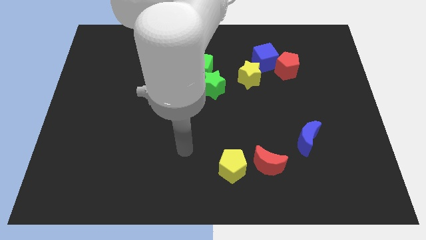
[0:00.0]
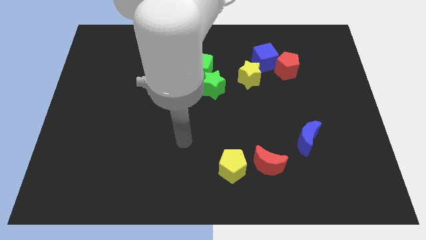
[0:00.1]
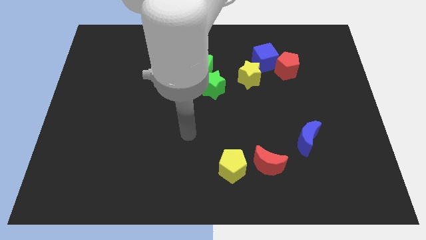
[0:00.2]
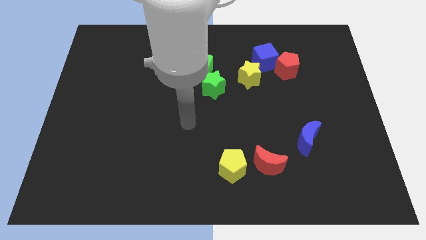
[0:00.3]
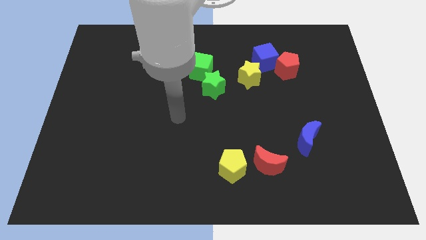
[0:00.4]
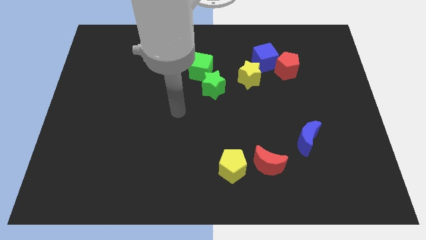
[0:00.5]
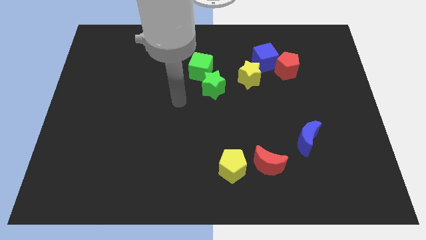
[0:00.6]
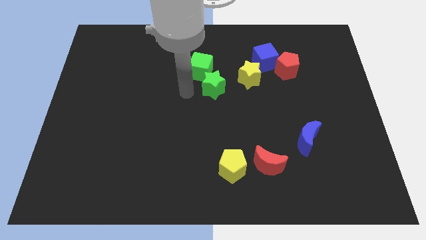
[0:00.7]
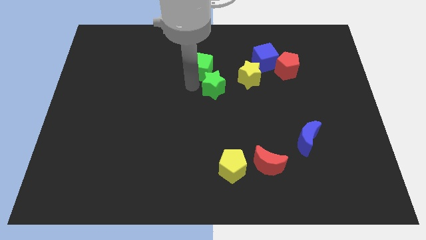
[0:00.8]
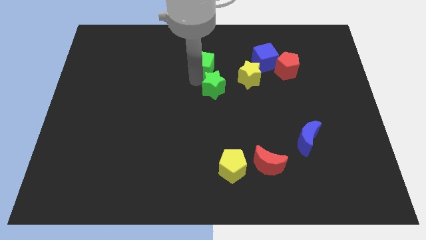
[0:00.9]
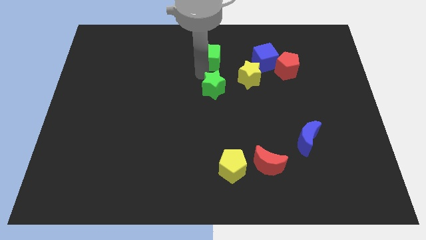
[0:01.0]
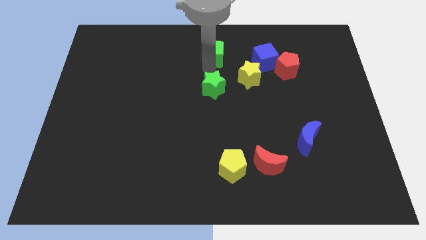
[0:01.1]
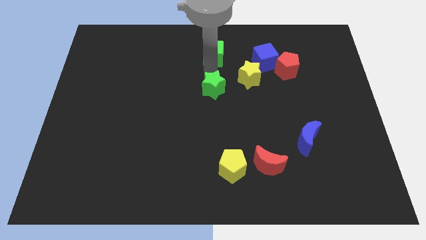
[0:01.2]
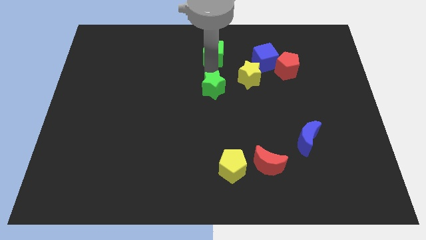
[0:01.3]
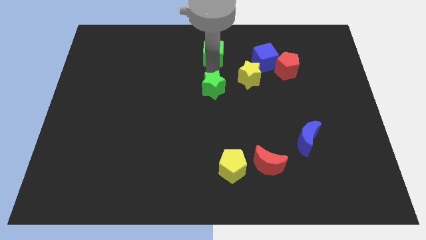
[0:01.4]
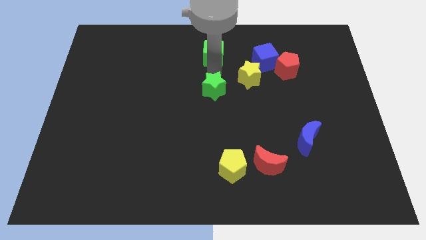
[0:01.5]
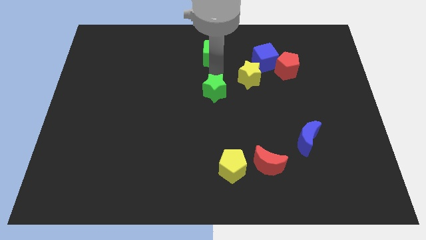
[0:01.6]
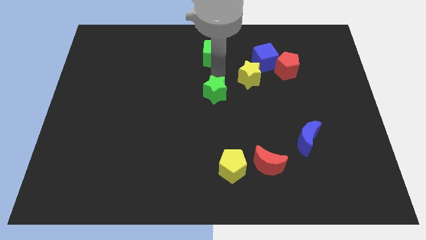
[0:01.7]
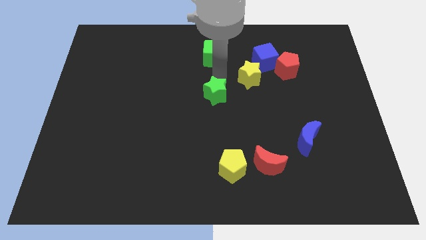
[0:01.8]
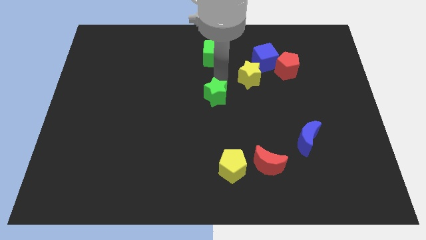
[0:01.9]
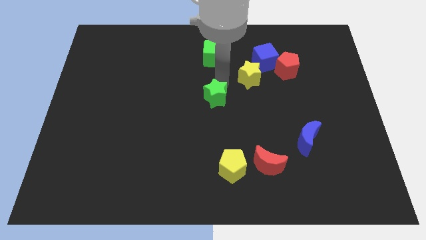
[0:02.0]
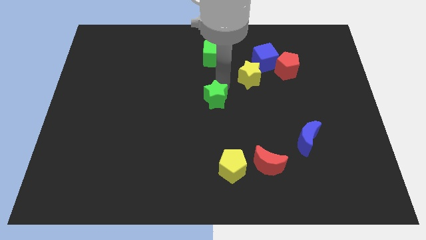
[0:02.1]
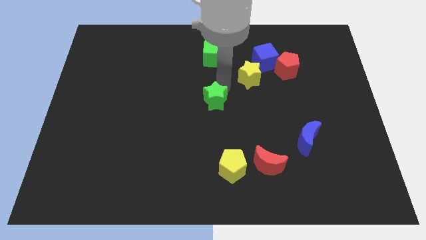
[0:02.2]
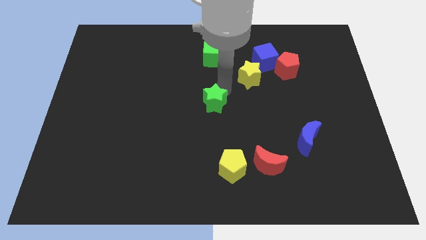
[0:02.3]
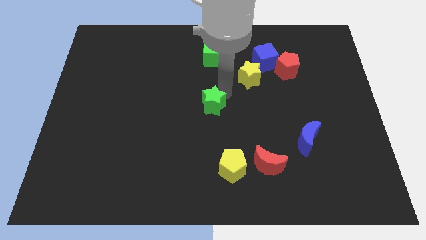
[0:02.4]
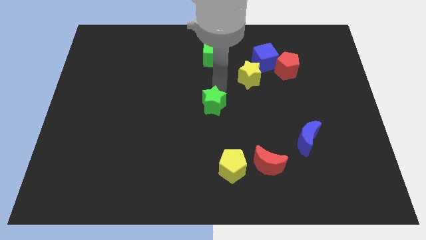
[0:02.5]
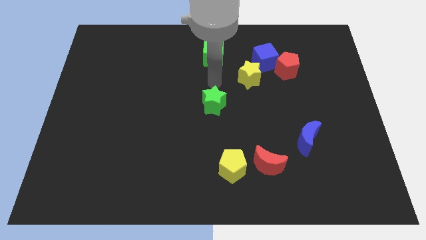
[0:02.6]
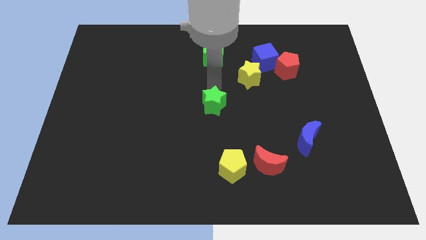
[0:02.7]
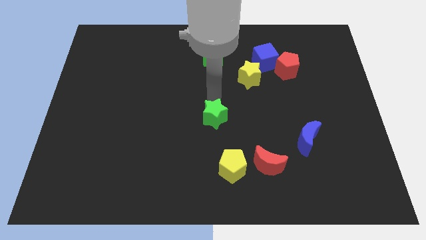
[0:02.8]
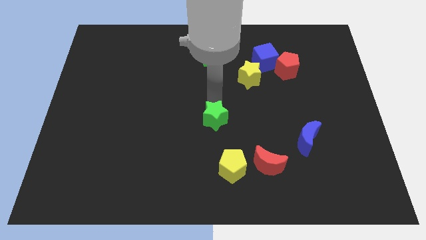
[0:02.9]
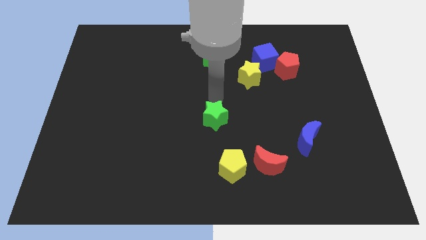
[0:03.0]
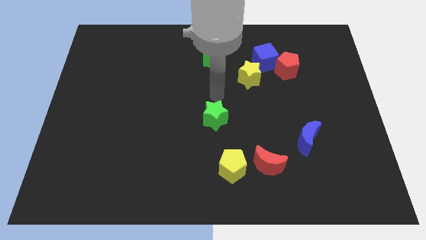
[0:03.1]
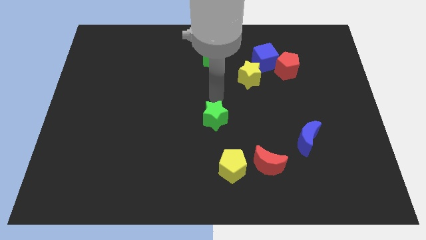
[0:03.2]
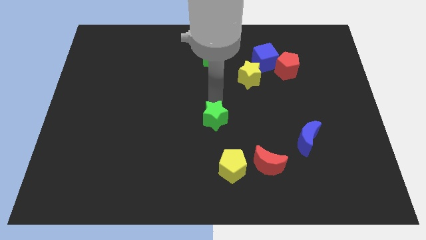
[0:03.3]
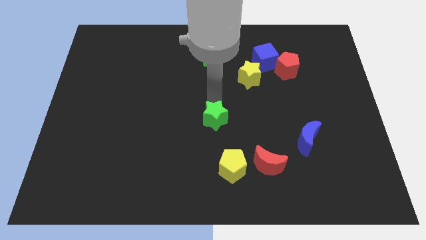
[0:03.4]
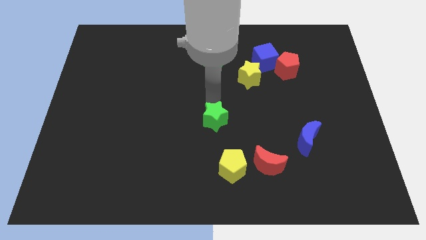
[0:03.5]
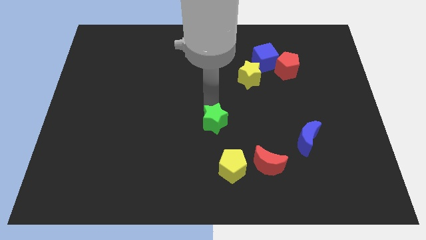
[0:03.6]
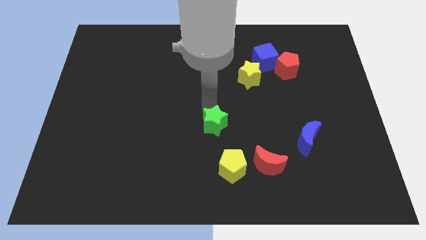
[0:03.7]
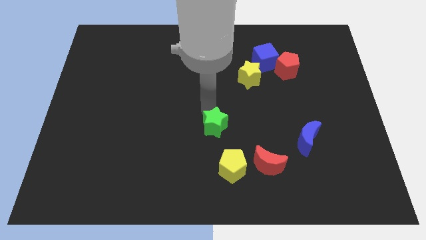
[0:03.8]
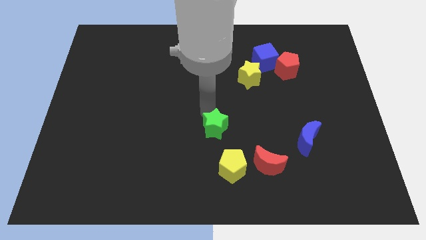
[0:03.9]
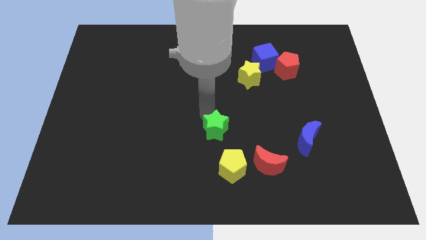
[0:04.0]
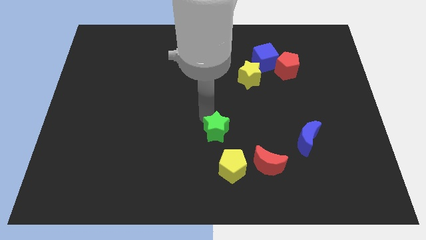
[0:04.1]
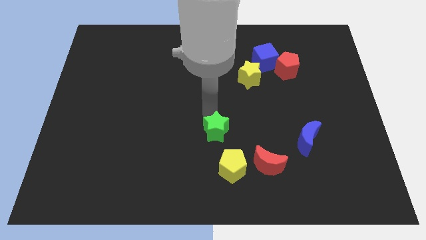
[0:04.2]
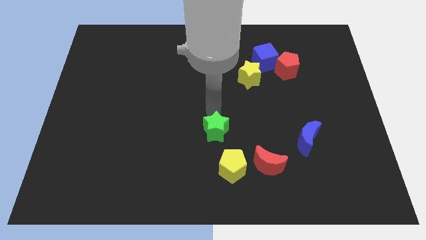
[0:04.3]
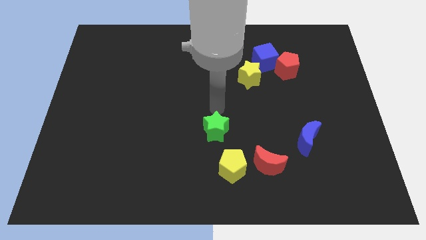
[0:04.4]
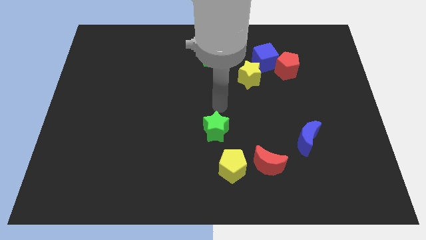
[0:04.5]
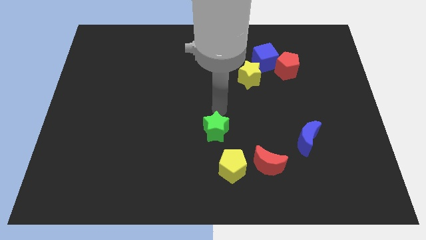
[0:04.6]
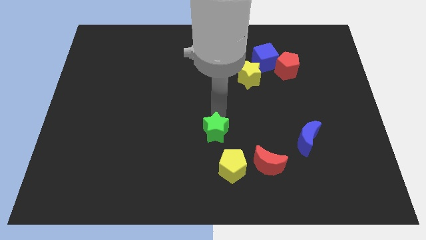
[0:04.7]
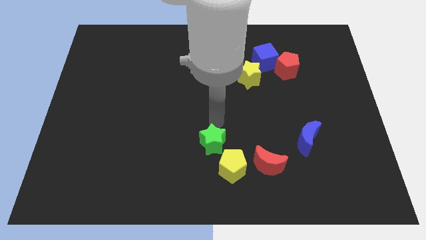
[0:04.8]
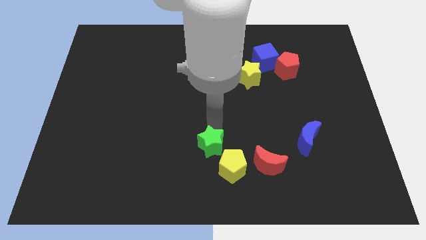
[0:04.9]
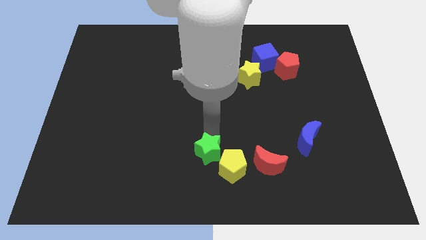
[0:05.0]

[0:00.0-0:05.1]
put the green star left of the red moon

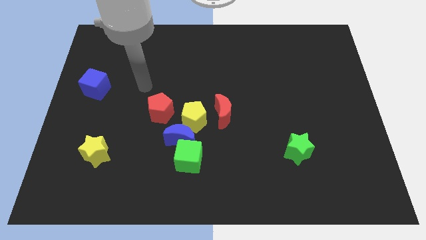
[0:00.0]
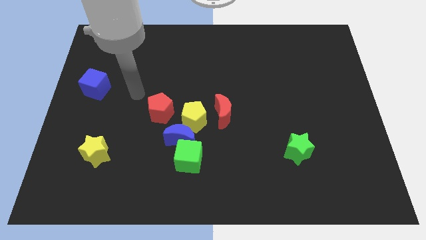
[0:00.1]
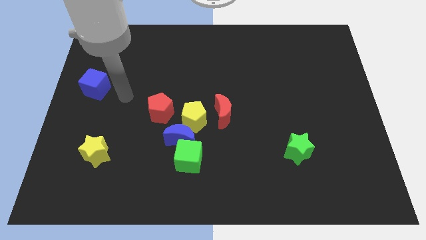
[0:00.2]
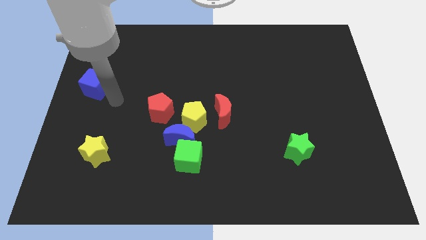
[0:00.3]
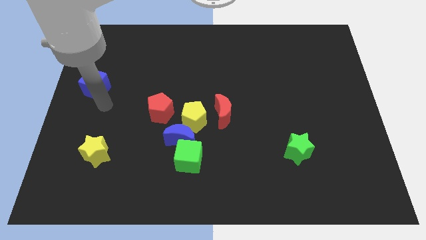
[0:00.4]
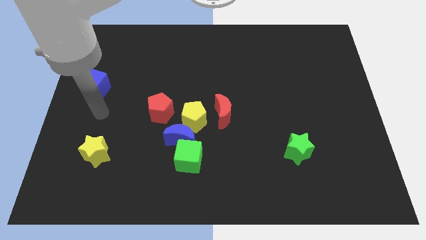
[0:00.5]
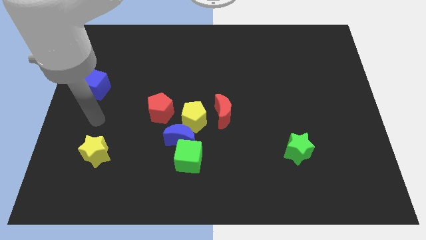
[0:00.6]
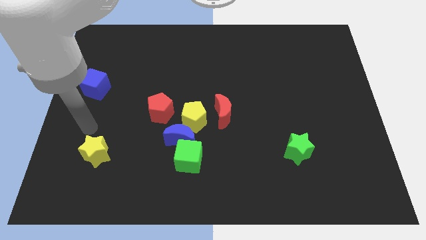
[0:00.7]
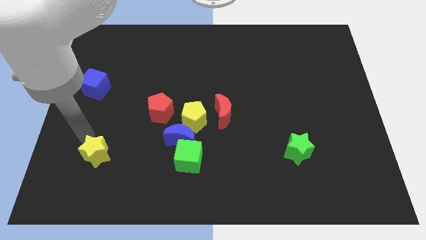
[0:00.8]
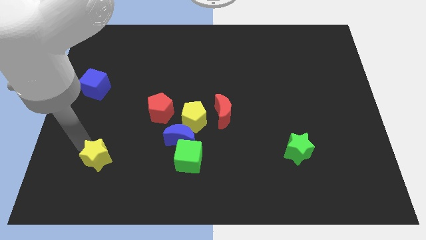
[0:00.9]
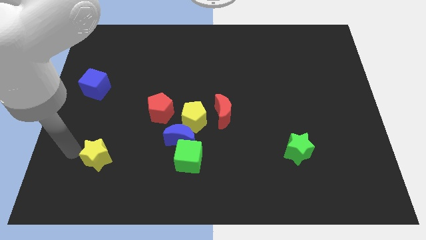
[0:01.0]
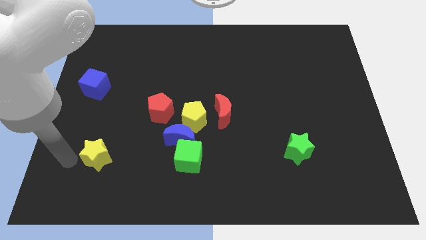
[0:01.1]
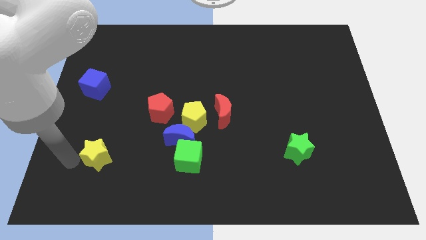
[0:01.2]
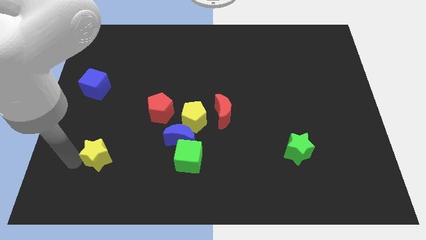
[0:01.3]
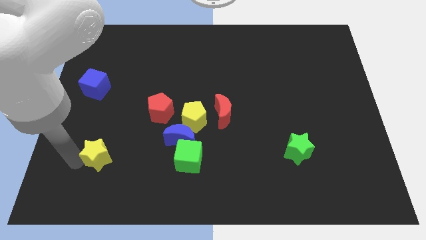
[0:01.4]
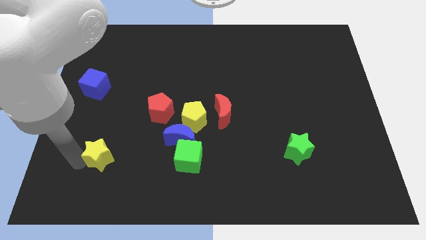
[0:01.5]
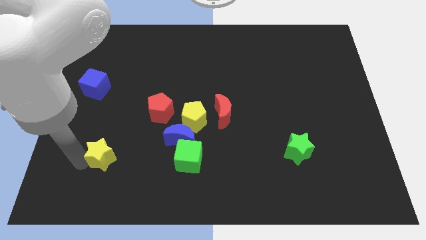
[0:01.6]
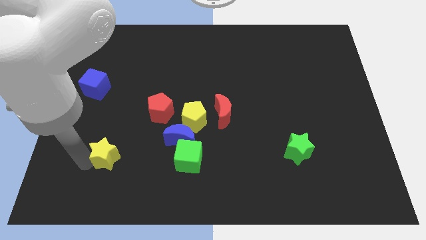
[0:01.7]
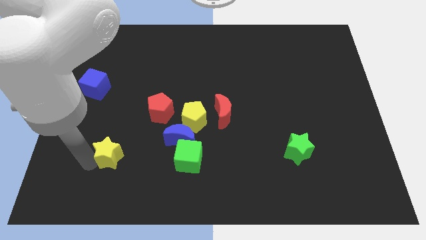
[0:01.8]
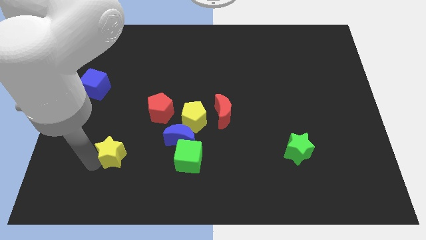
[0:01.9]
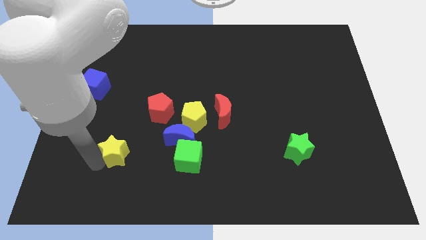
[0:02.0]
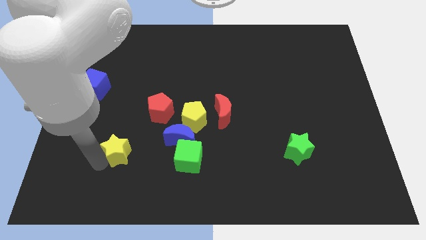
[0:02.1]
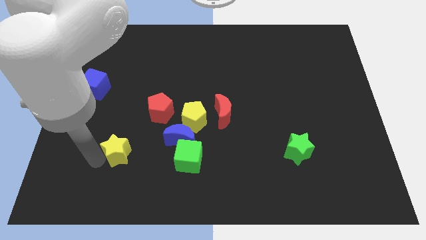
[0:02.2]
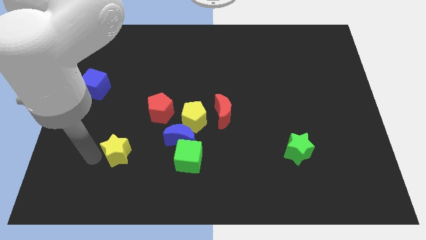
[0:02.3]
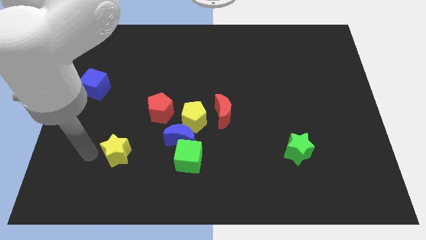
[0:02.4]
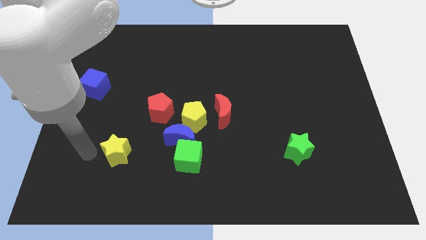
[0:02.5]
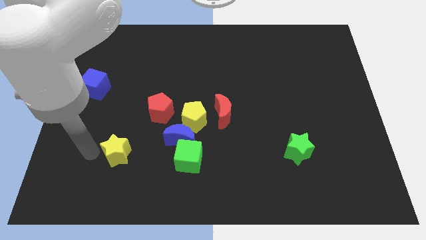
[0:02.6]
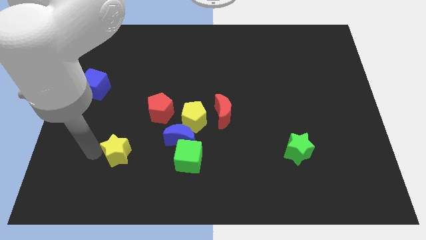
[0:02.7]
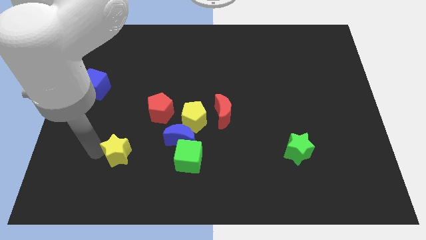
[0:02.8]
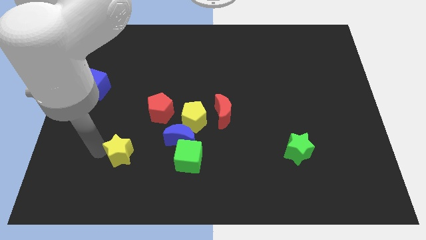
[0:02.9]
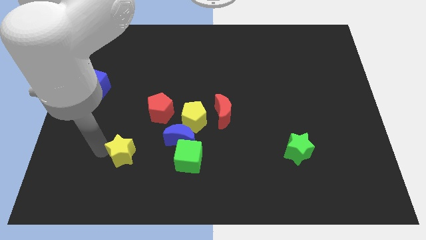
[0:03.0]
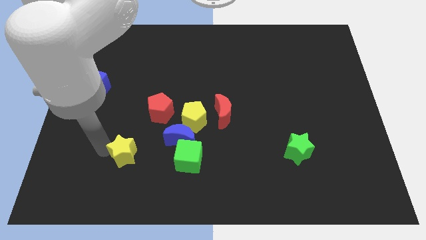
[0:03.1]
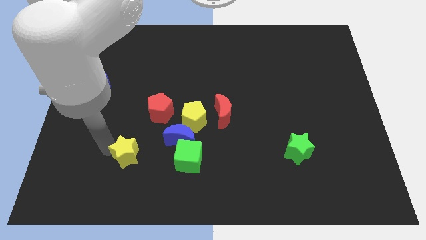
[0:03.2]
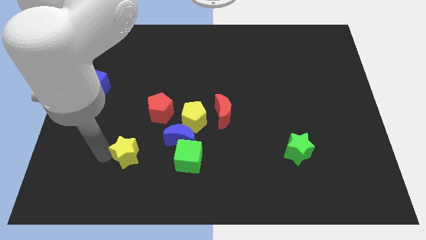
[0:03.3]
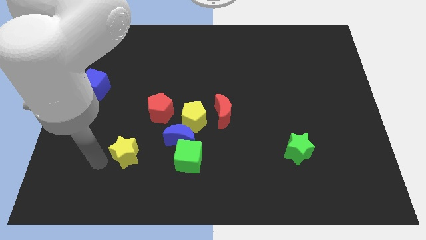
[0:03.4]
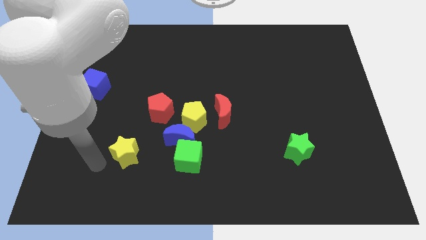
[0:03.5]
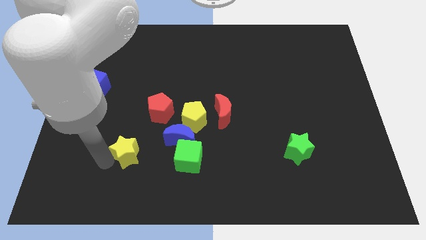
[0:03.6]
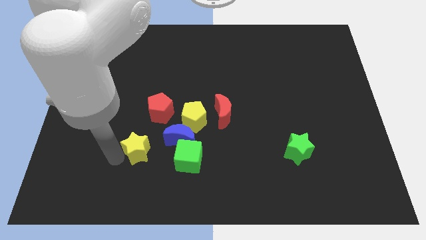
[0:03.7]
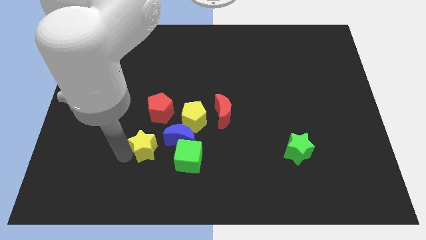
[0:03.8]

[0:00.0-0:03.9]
slide the yellow star to the bottom left side of the yellow pentagon
